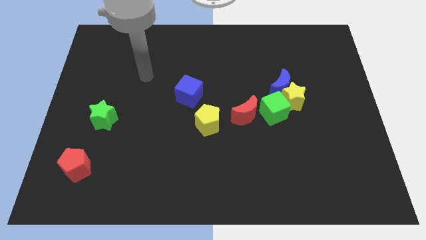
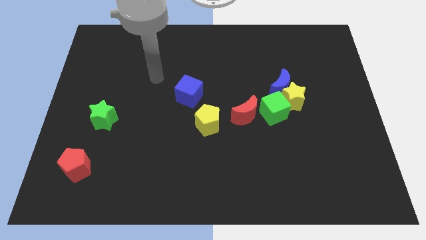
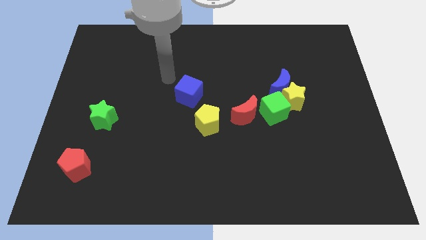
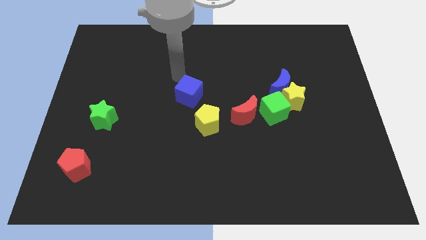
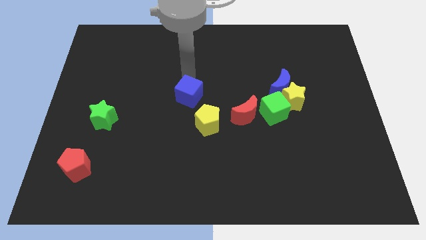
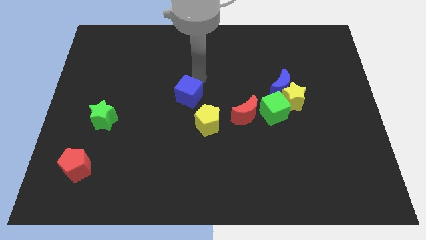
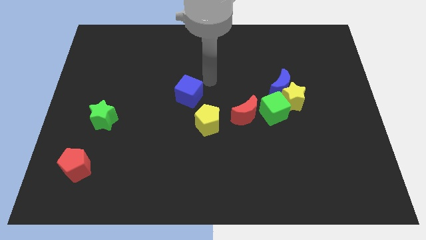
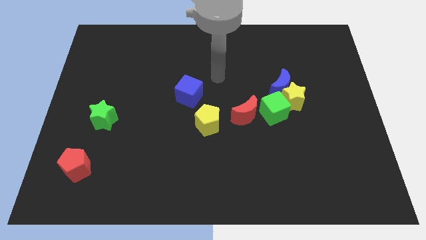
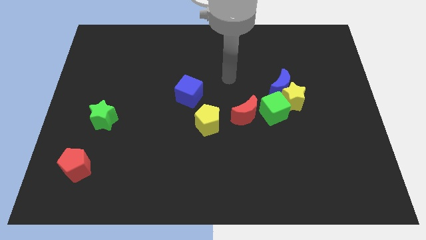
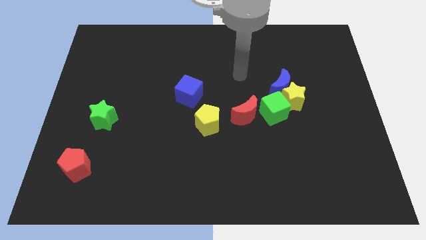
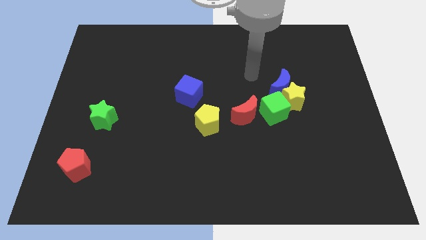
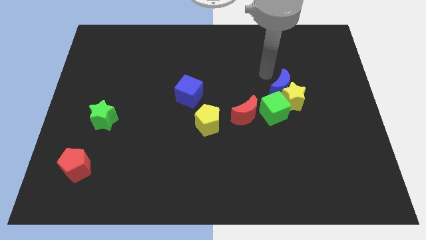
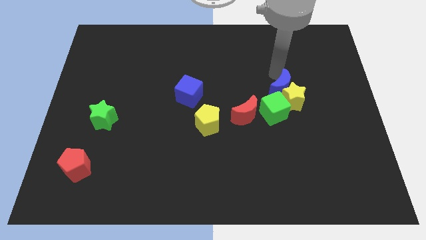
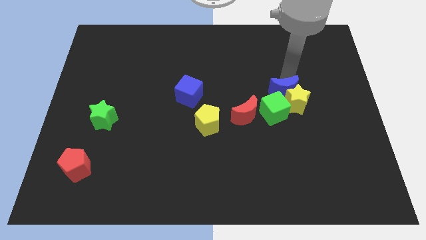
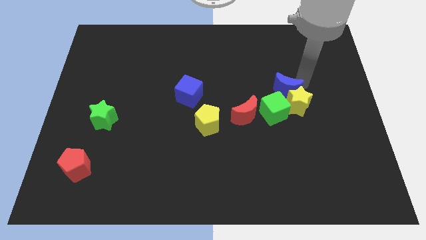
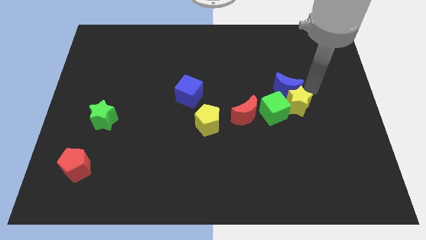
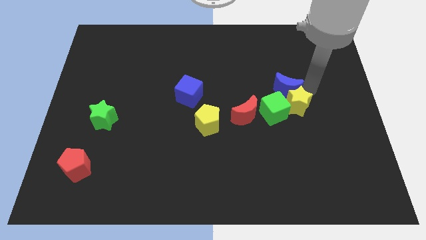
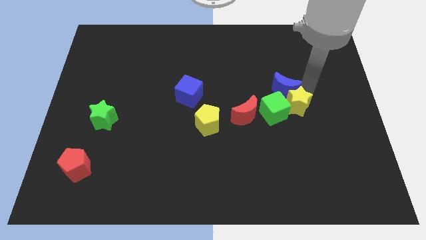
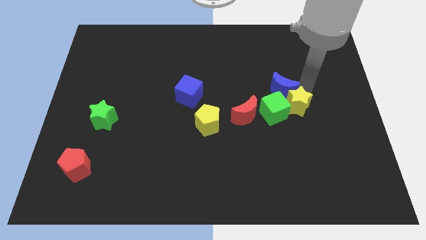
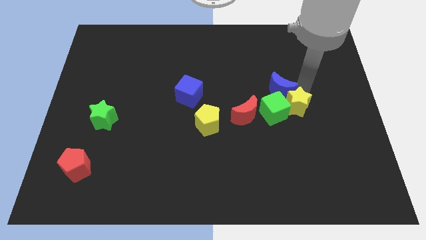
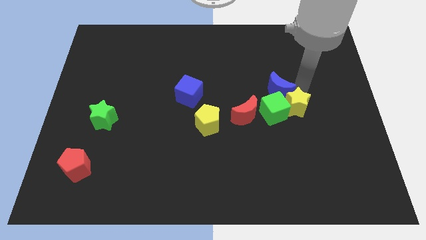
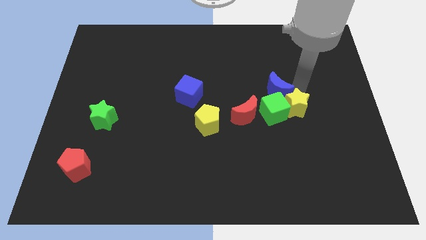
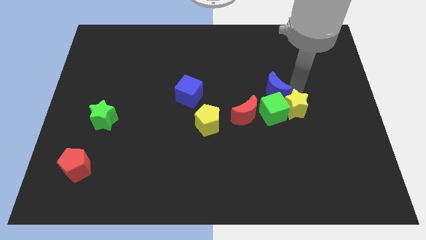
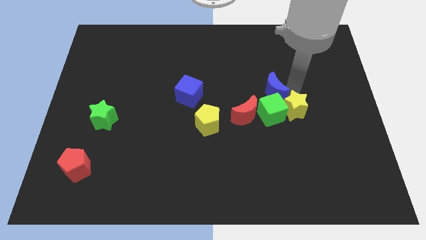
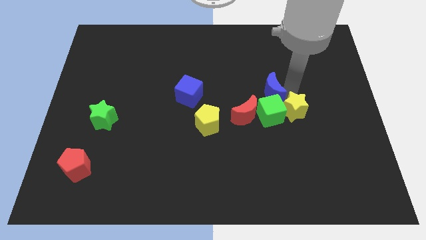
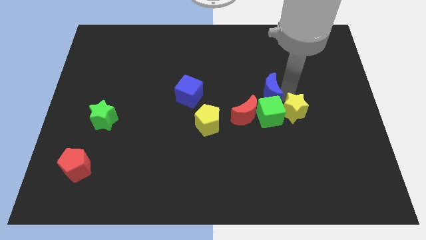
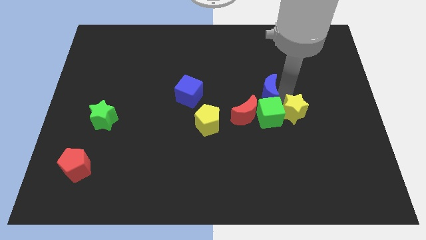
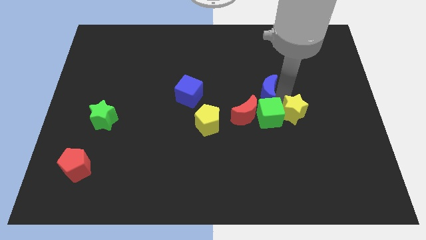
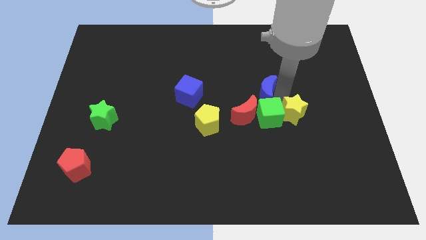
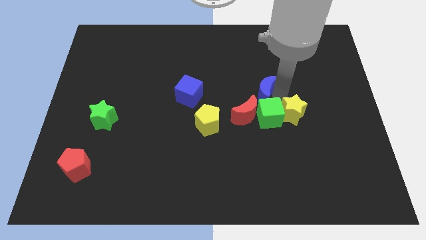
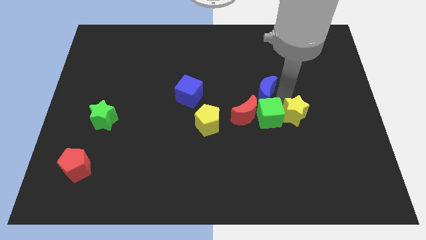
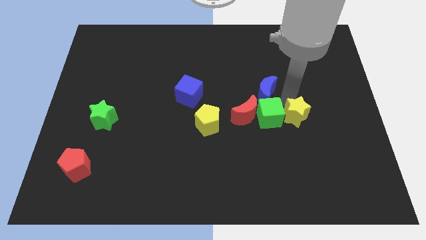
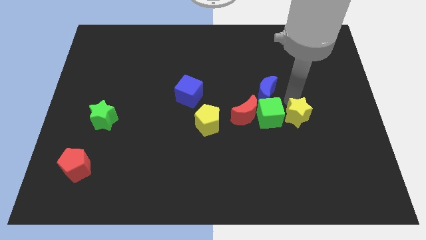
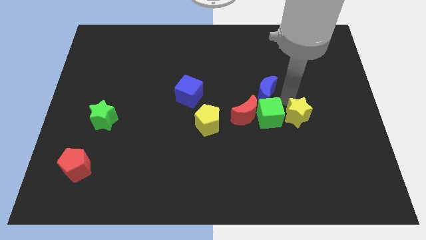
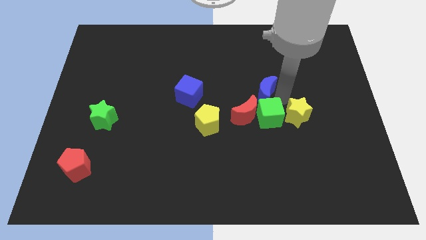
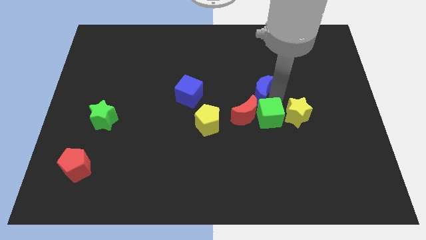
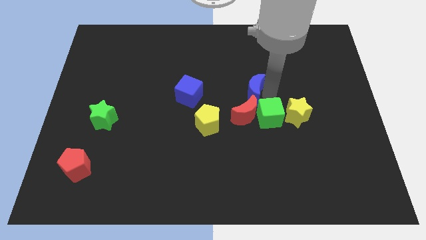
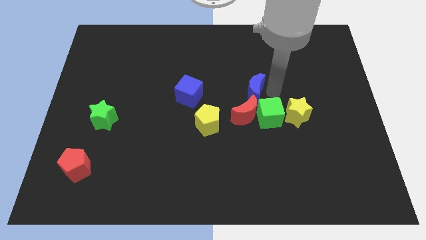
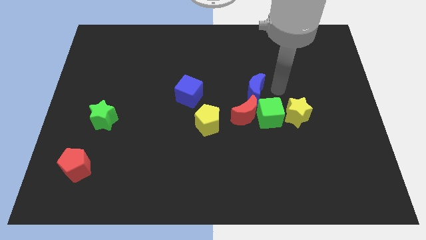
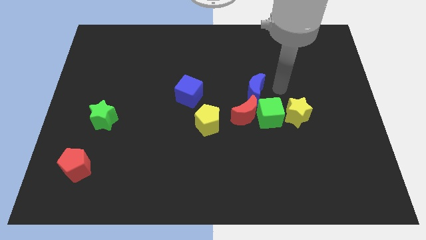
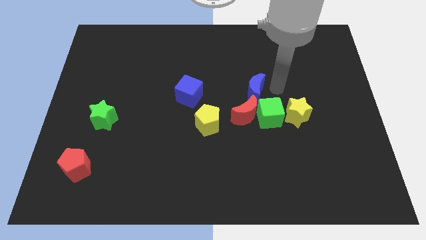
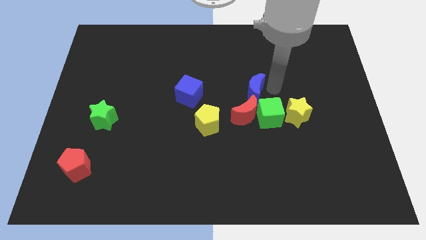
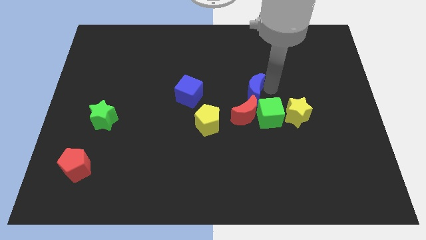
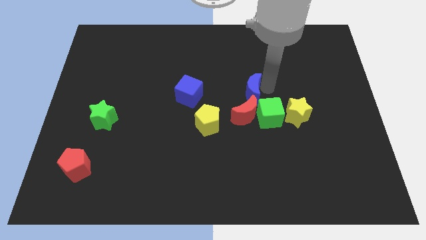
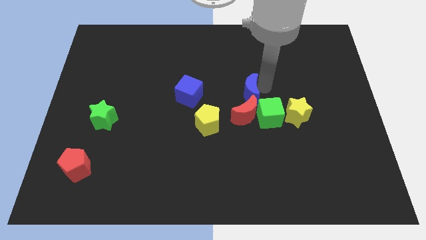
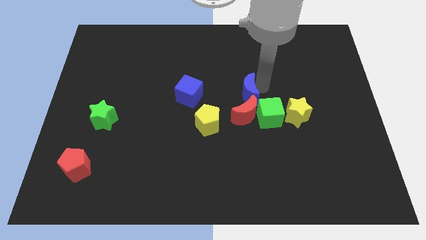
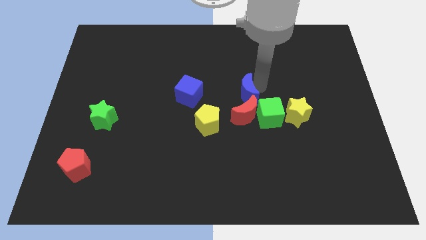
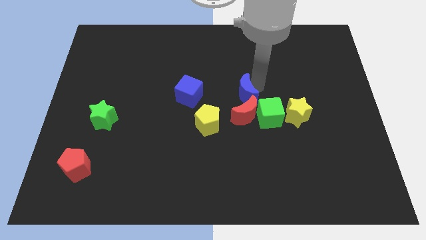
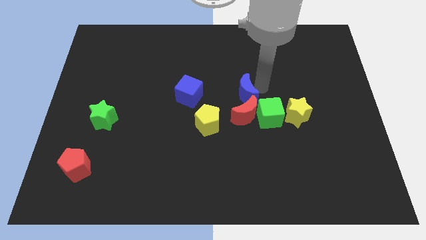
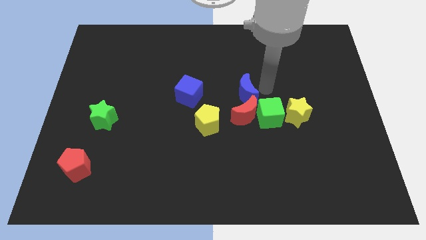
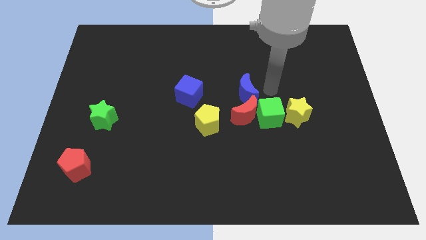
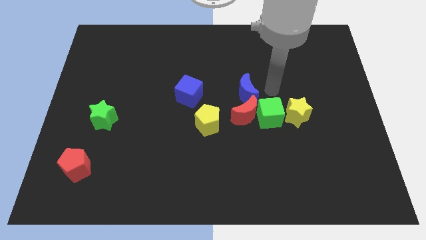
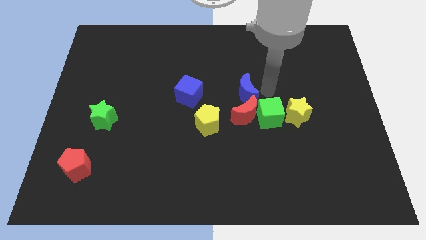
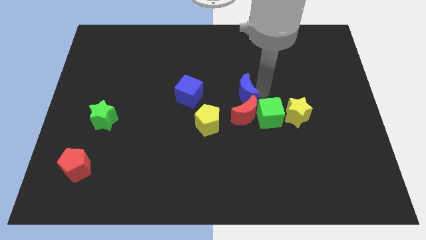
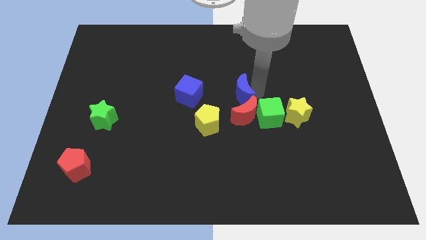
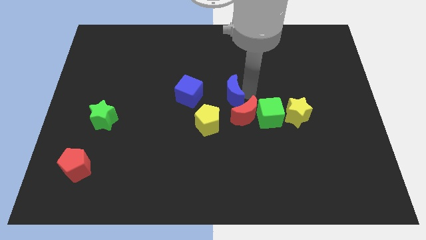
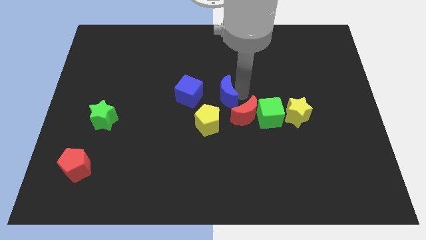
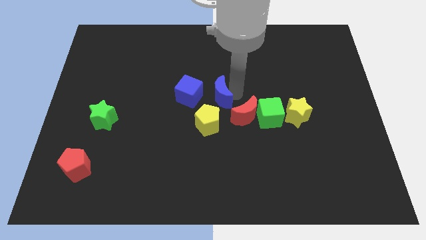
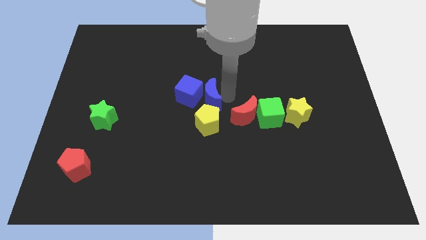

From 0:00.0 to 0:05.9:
slide the blue moon towards the blue cube

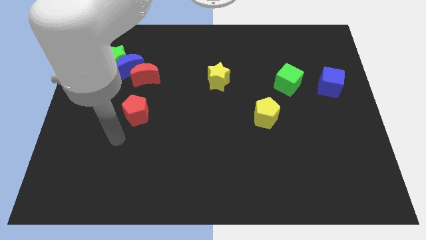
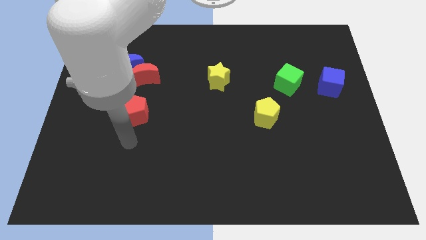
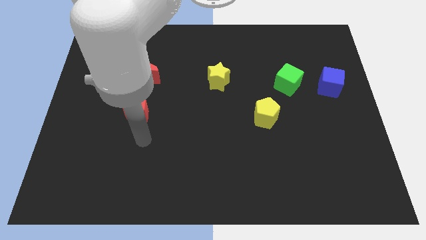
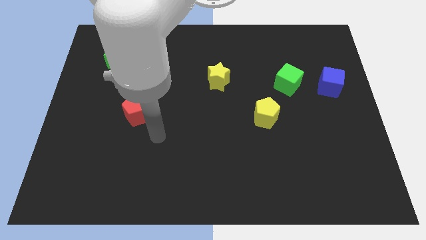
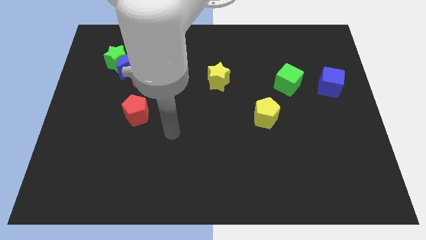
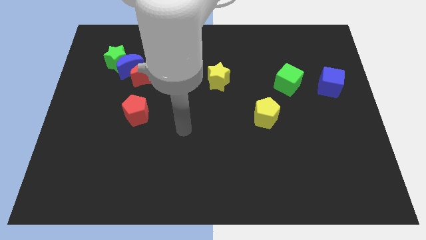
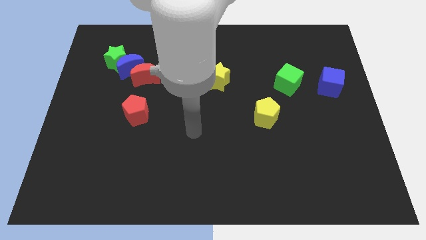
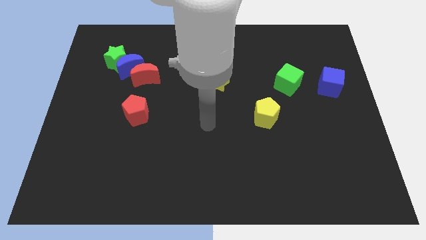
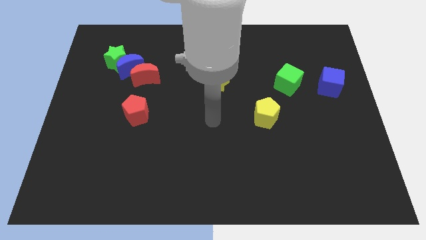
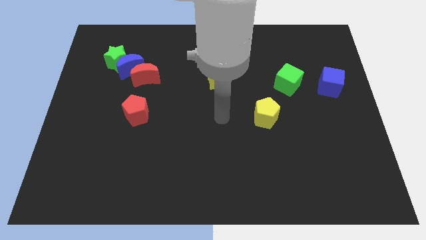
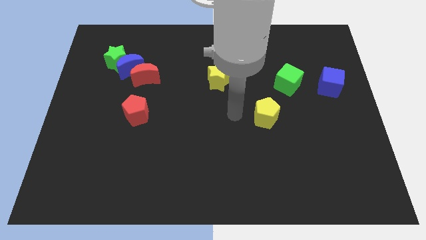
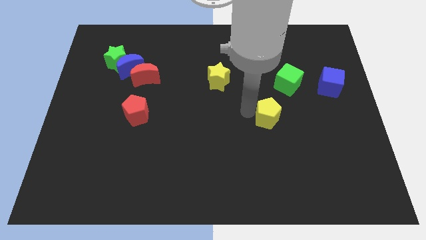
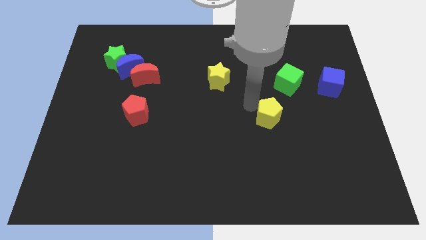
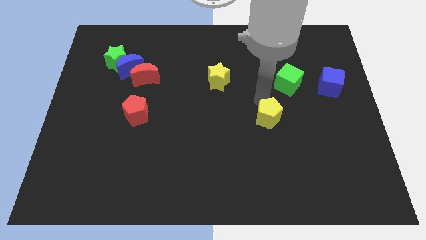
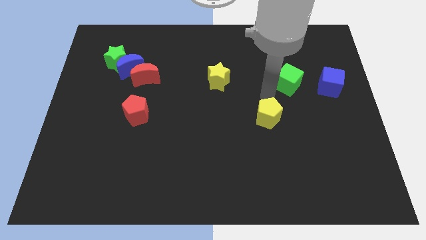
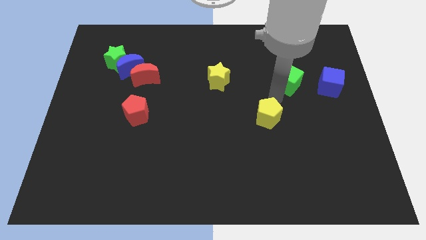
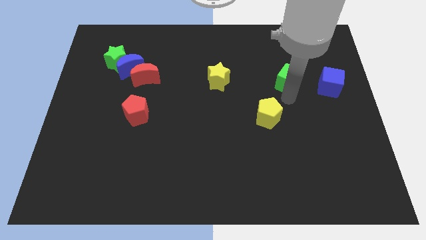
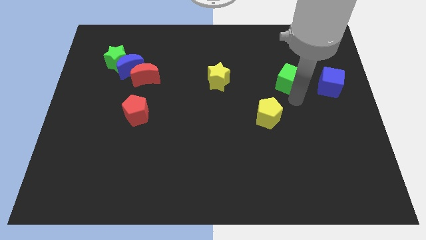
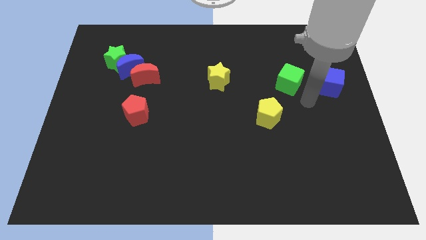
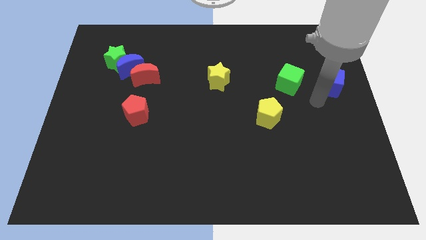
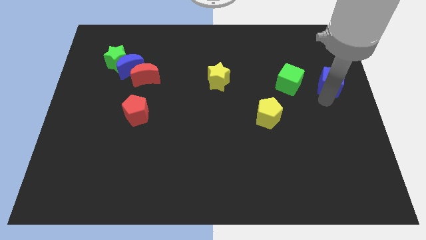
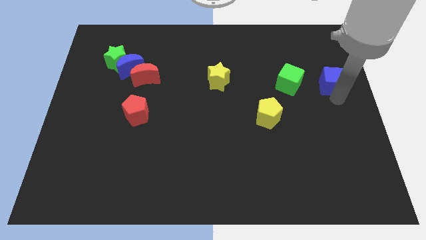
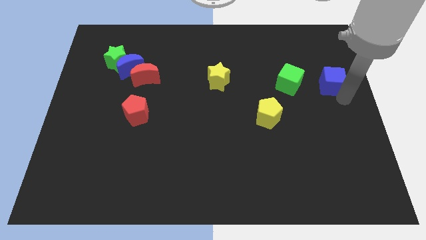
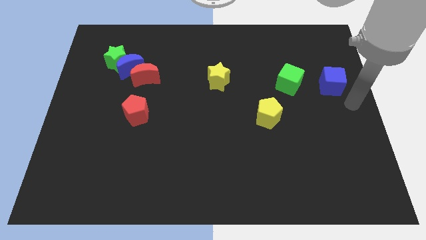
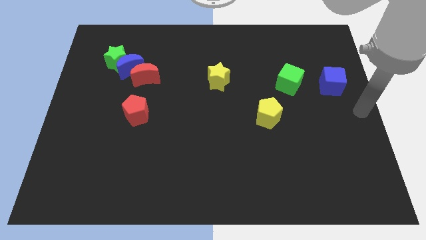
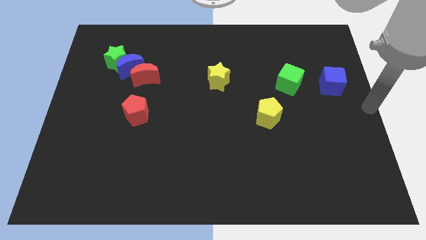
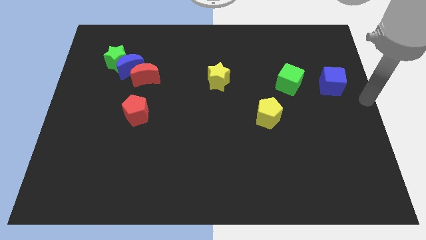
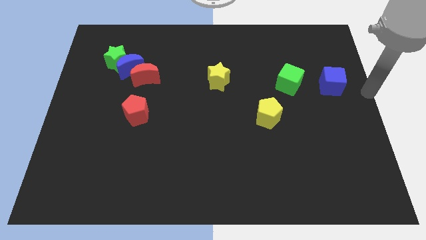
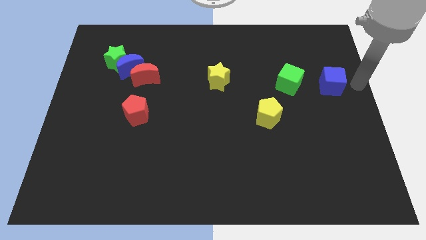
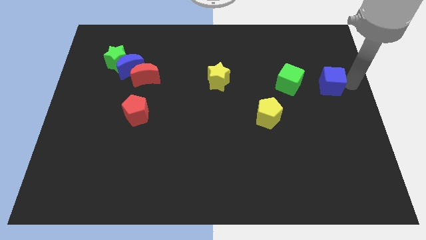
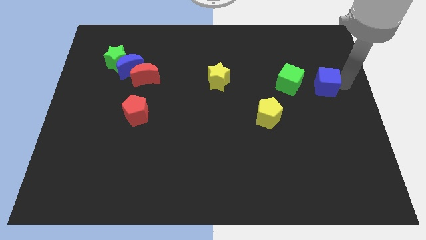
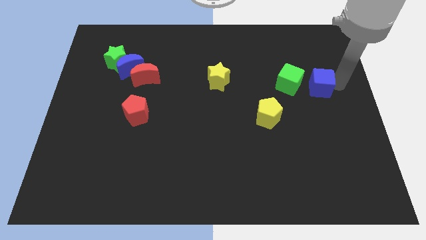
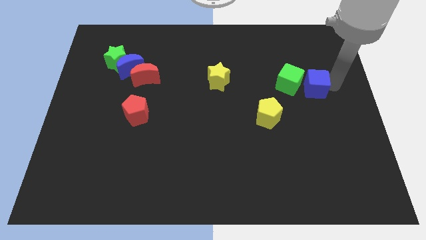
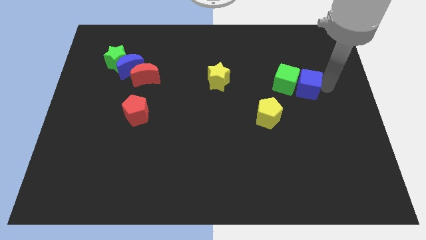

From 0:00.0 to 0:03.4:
slide the blue cube to the green cube
